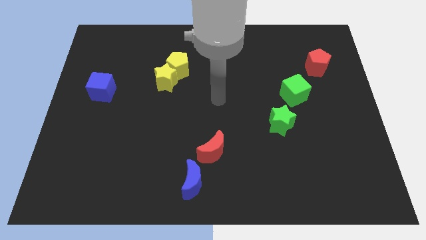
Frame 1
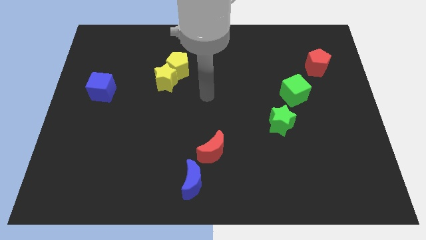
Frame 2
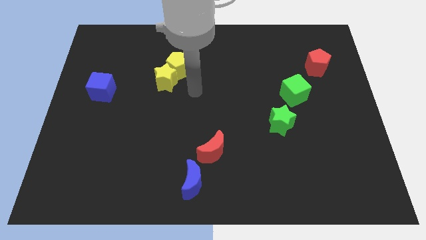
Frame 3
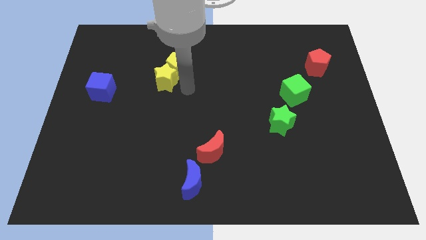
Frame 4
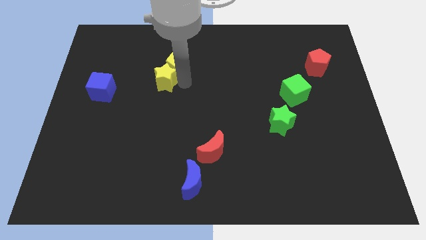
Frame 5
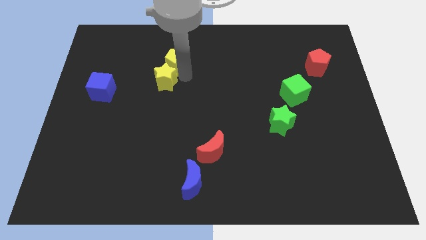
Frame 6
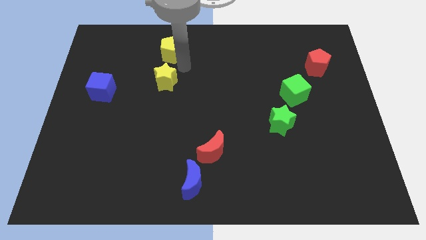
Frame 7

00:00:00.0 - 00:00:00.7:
separate the yellow star from the yellow pentagon

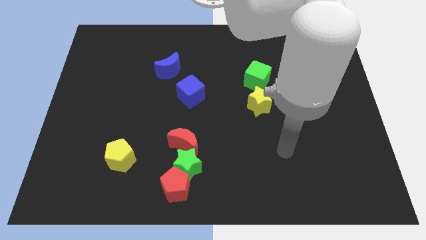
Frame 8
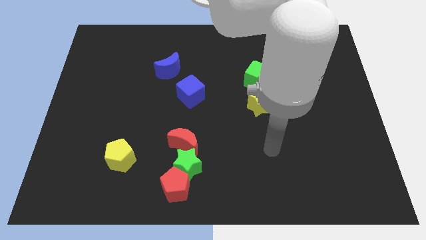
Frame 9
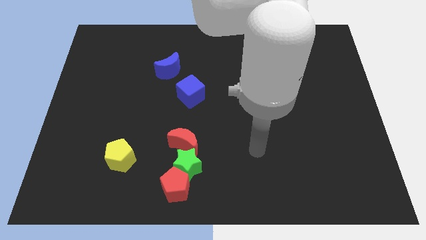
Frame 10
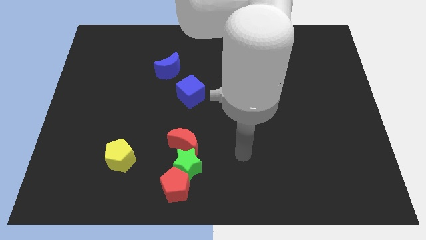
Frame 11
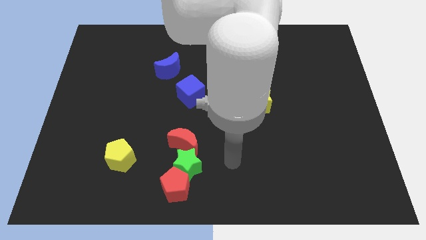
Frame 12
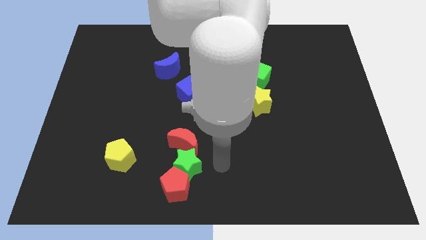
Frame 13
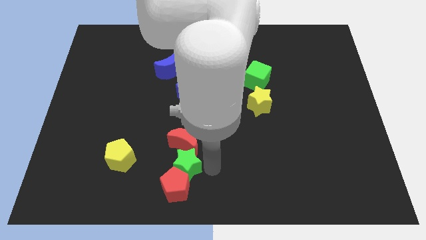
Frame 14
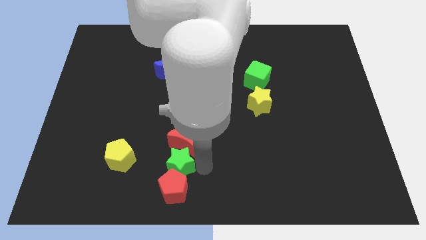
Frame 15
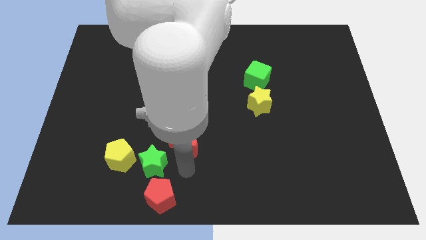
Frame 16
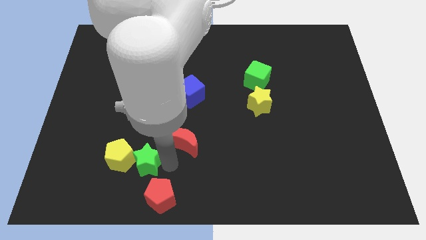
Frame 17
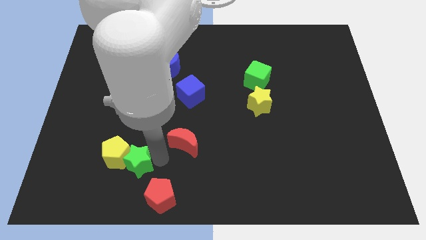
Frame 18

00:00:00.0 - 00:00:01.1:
pull the red moon apart from the green star

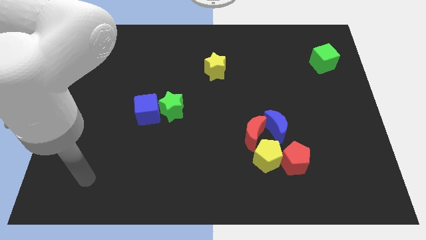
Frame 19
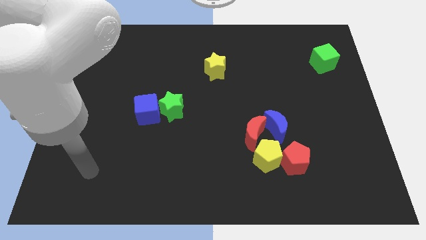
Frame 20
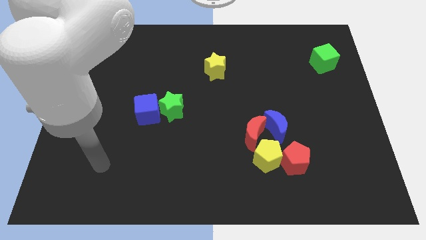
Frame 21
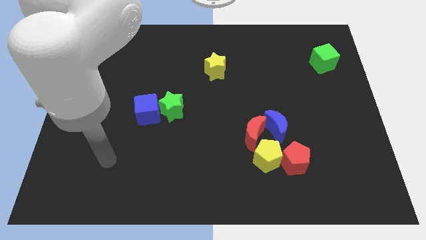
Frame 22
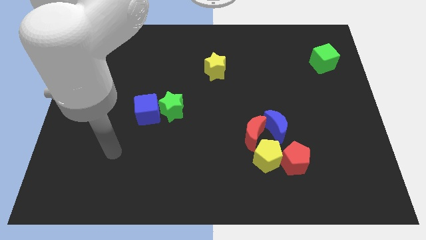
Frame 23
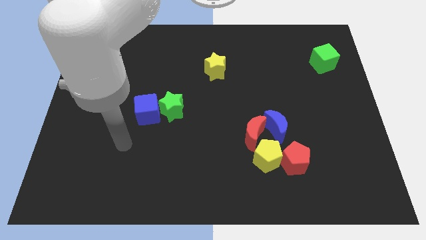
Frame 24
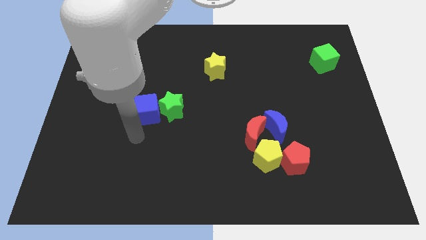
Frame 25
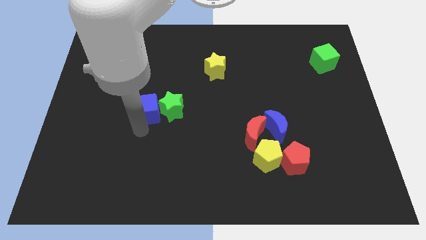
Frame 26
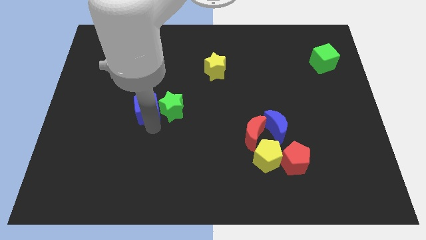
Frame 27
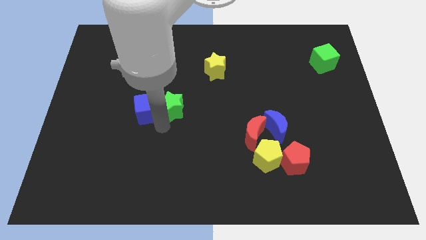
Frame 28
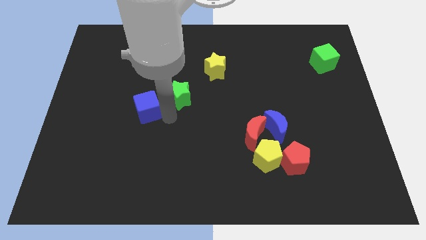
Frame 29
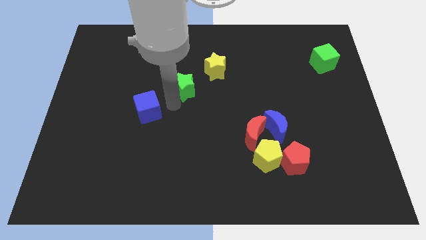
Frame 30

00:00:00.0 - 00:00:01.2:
separate the blue cube from the green star

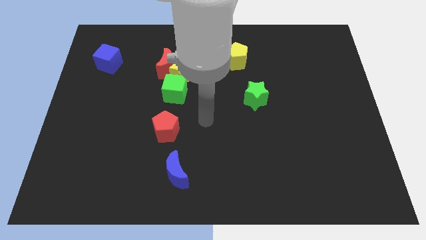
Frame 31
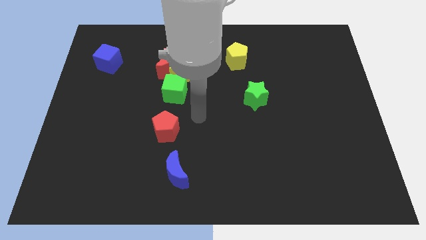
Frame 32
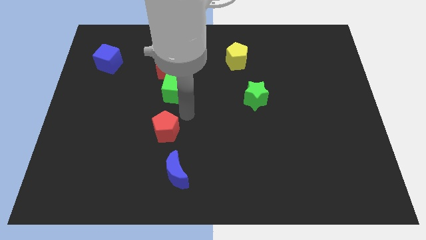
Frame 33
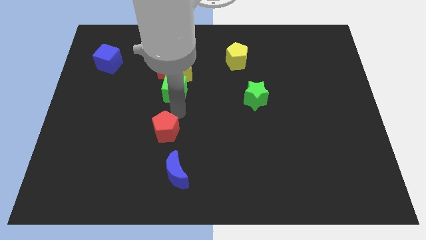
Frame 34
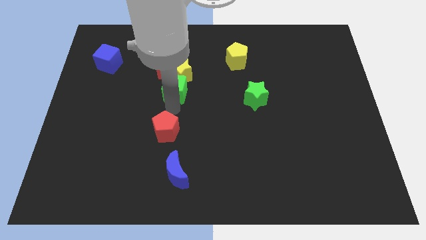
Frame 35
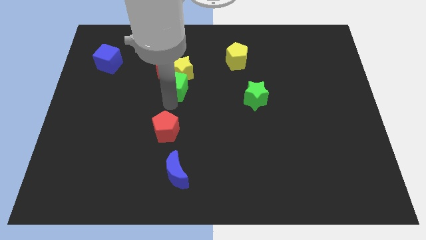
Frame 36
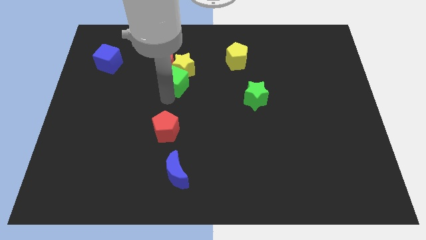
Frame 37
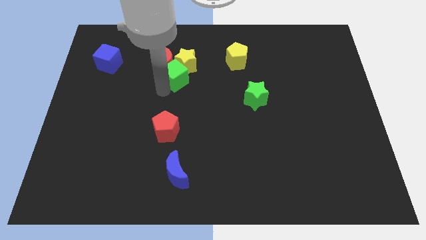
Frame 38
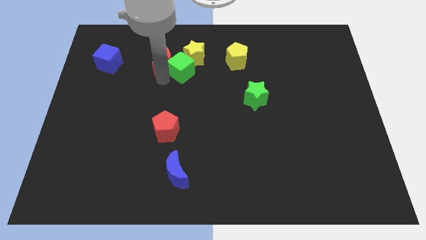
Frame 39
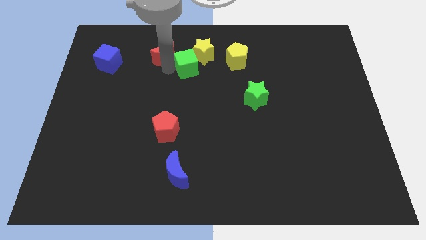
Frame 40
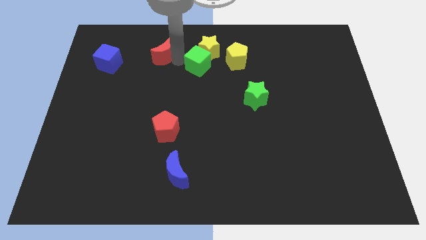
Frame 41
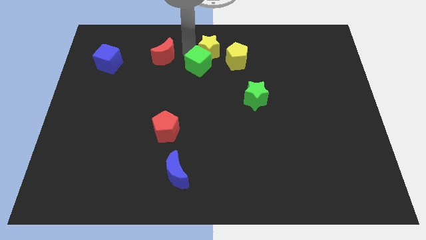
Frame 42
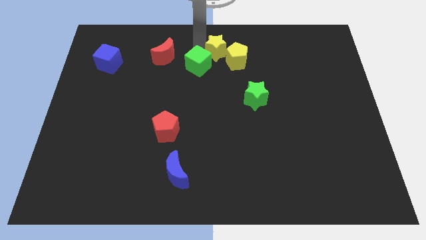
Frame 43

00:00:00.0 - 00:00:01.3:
pull the yellow star apart from the red moon and green cube

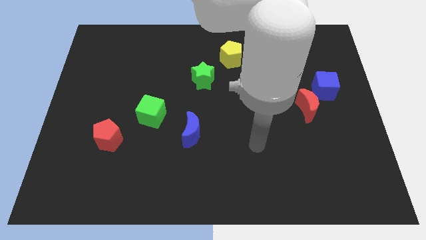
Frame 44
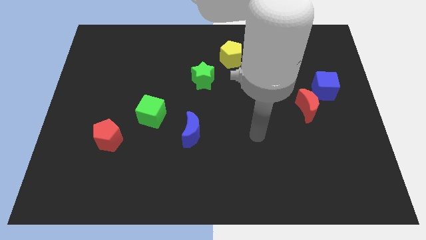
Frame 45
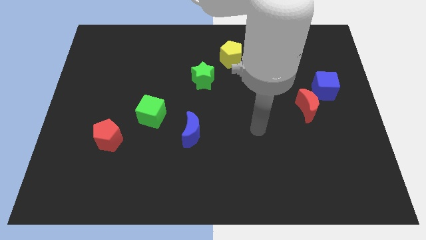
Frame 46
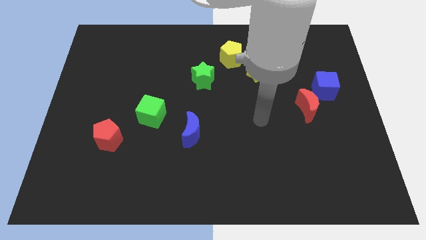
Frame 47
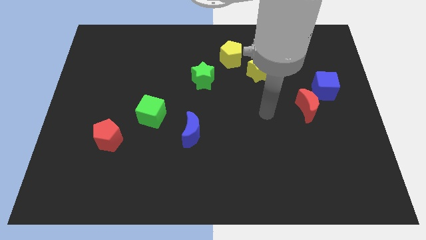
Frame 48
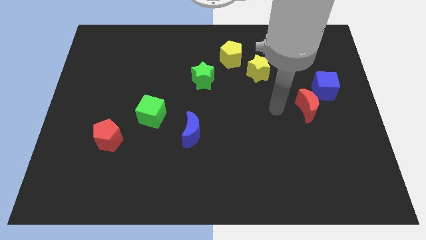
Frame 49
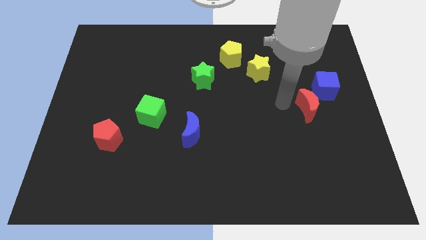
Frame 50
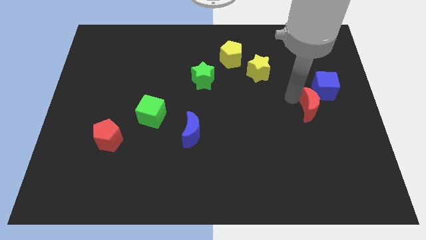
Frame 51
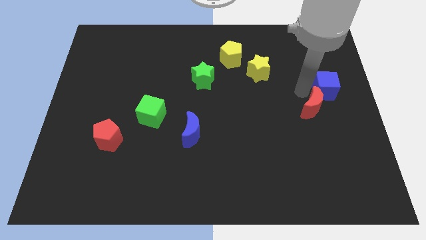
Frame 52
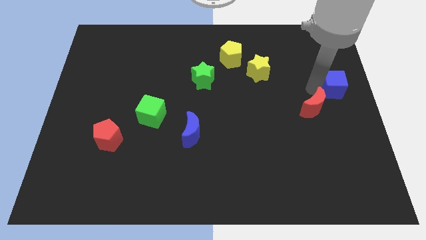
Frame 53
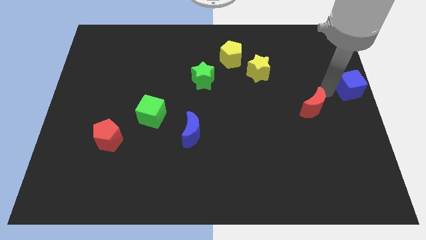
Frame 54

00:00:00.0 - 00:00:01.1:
separate the red moon from the blue cube

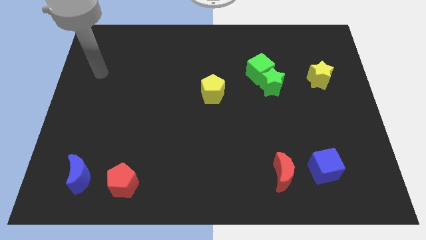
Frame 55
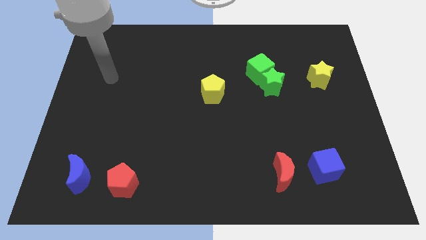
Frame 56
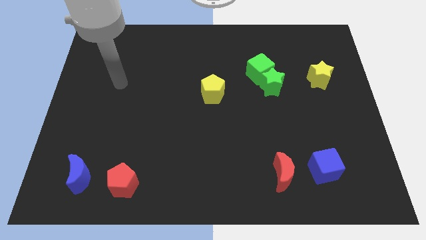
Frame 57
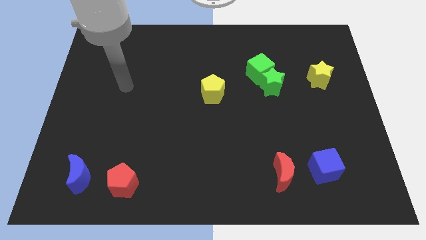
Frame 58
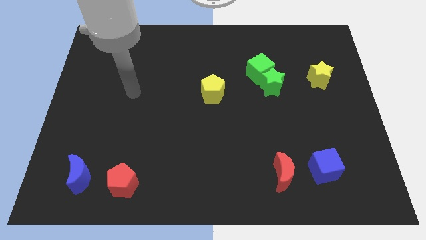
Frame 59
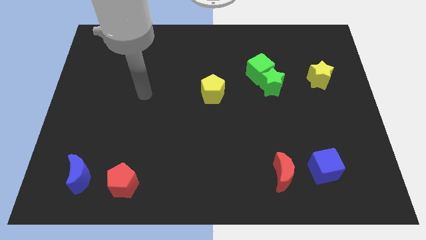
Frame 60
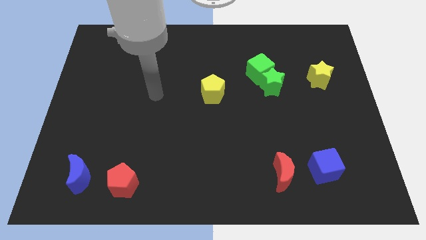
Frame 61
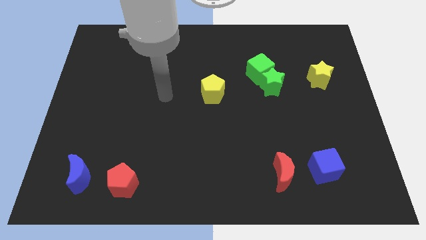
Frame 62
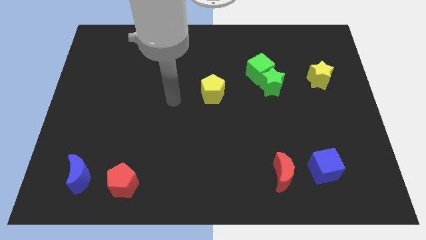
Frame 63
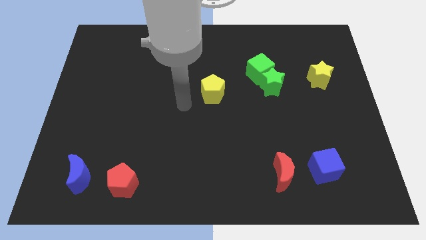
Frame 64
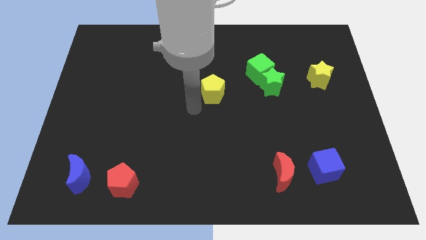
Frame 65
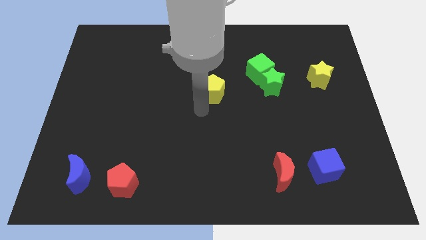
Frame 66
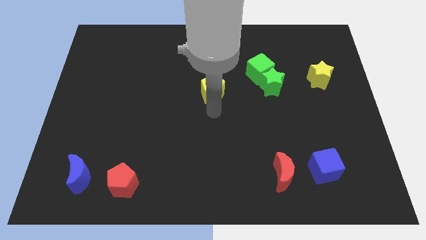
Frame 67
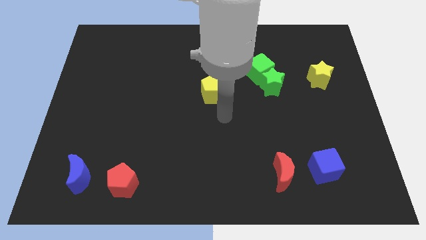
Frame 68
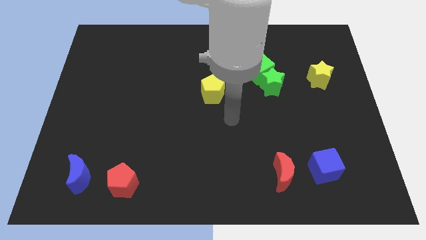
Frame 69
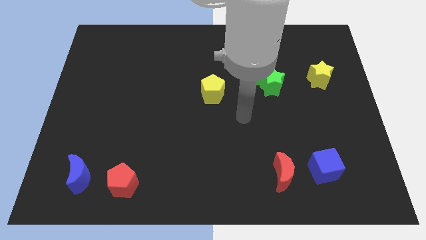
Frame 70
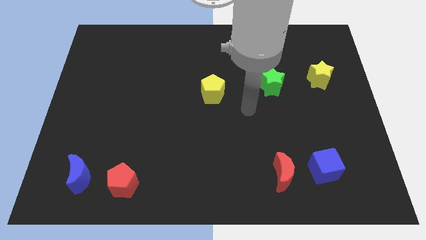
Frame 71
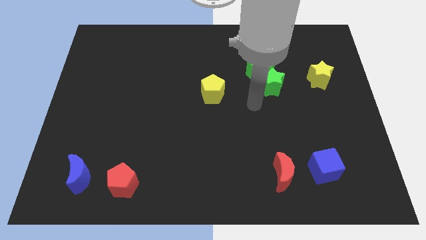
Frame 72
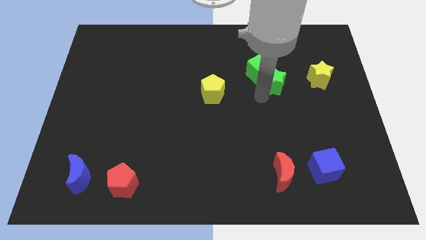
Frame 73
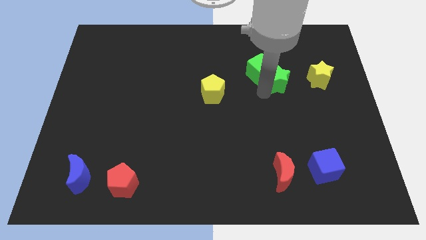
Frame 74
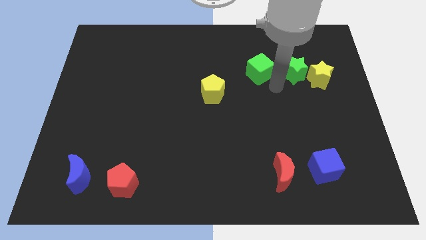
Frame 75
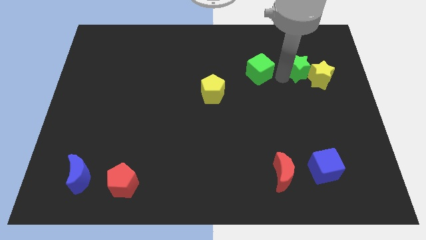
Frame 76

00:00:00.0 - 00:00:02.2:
separate the green cube from the green star

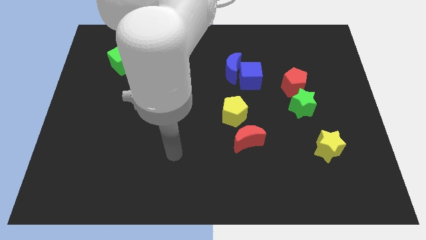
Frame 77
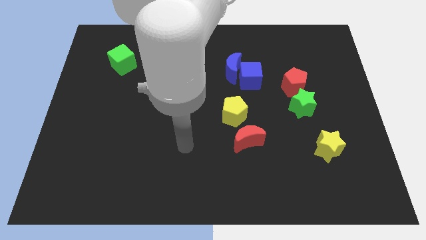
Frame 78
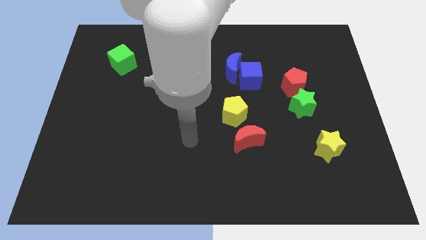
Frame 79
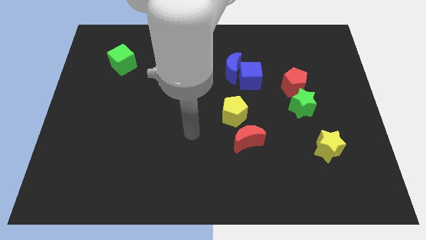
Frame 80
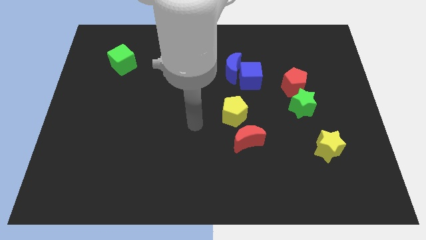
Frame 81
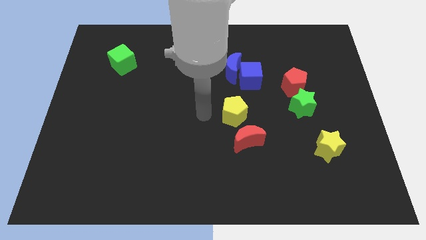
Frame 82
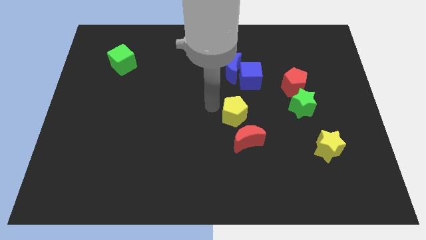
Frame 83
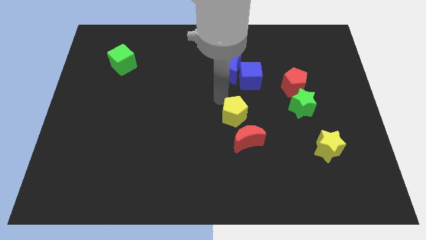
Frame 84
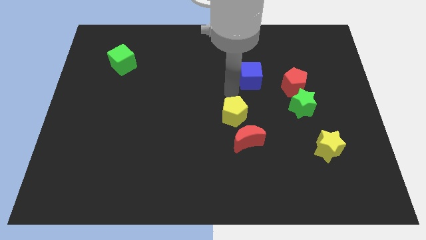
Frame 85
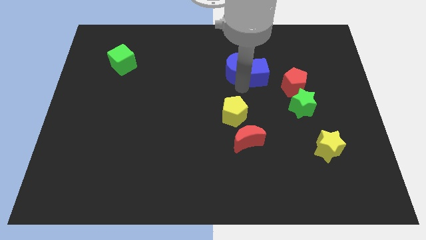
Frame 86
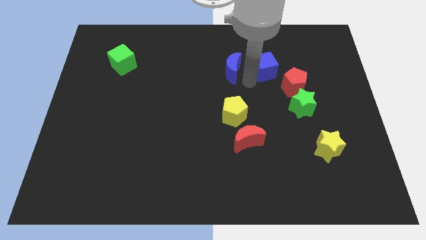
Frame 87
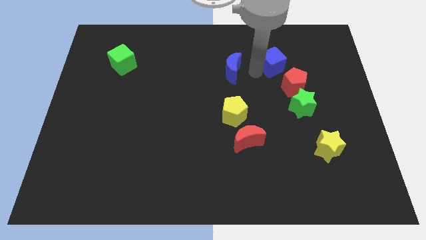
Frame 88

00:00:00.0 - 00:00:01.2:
move the blue moon away from the blue cube

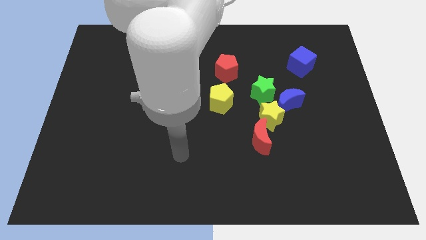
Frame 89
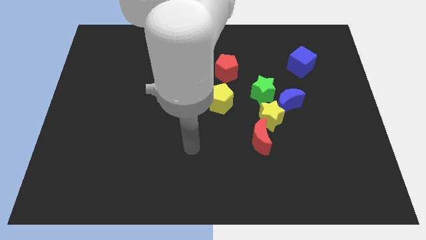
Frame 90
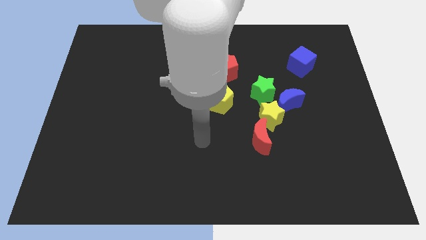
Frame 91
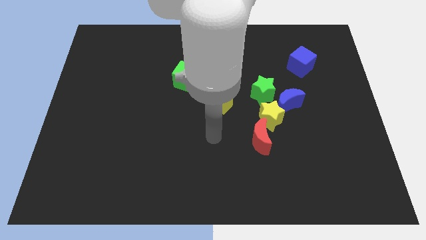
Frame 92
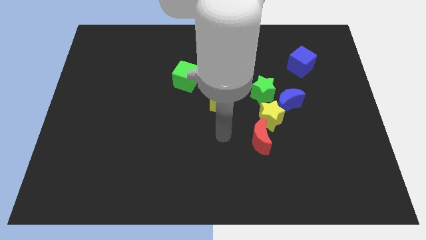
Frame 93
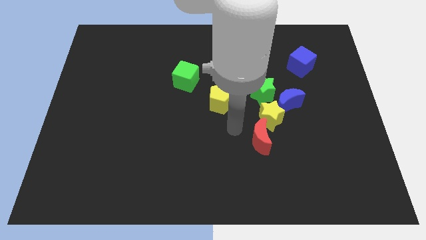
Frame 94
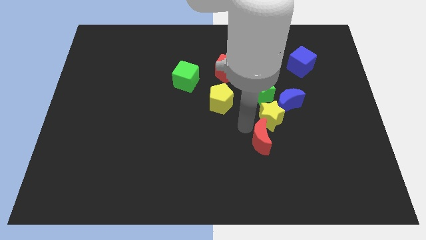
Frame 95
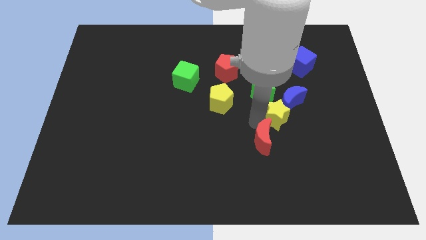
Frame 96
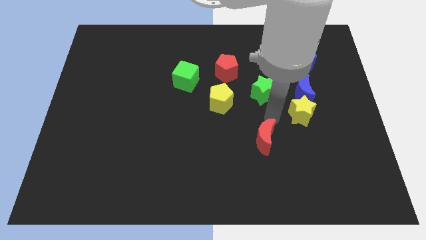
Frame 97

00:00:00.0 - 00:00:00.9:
pull the red moon apart from the yellow star
